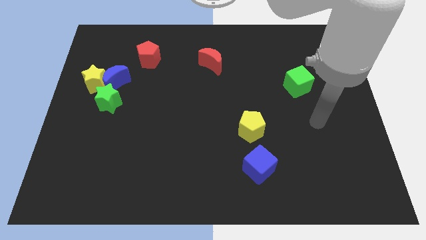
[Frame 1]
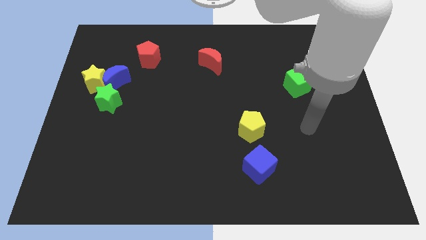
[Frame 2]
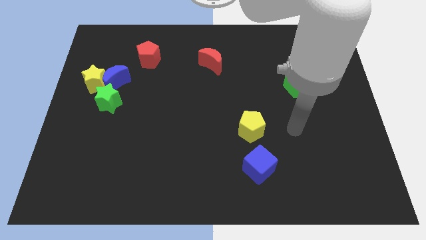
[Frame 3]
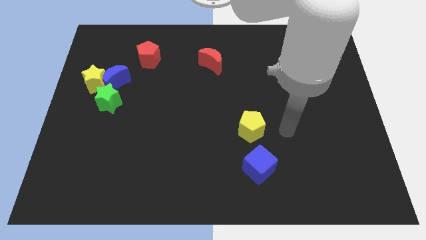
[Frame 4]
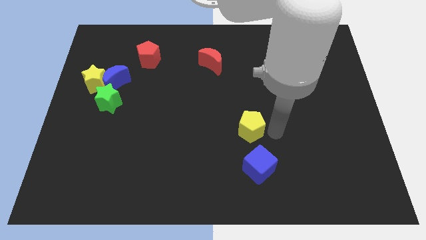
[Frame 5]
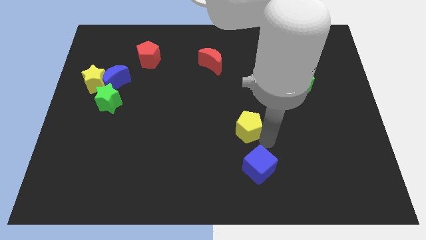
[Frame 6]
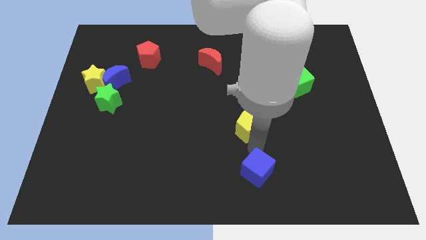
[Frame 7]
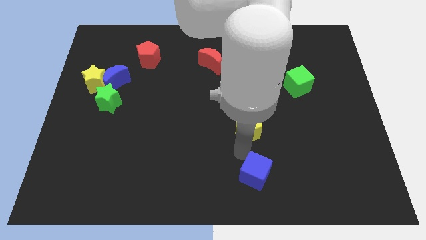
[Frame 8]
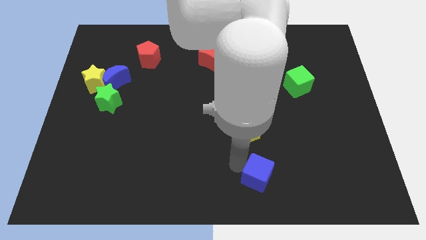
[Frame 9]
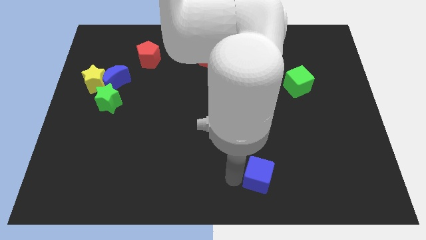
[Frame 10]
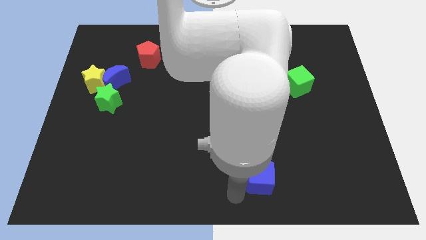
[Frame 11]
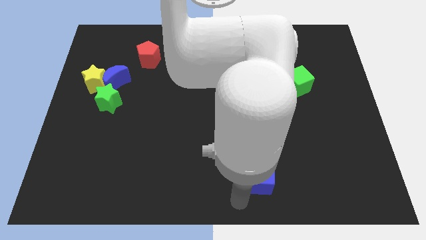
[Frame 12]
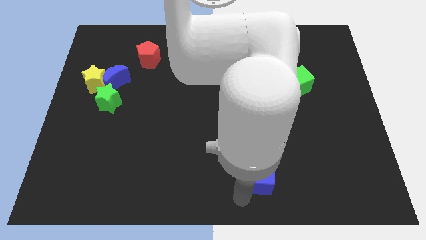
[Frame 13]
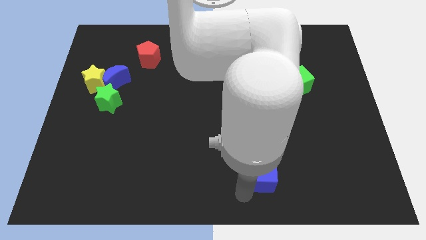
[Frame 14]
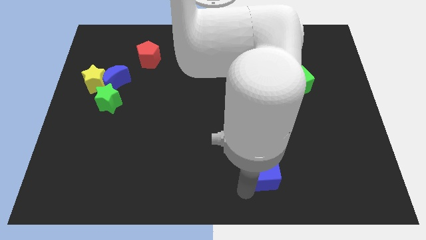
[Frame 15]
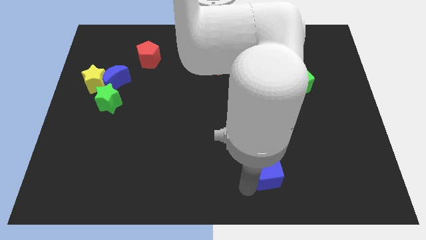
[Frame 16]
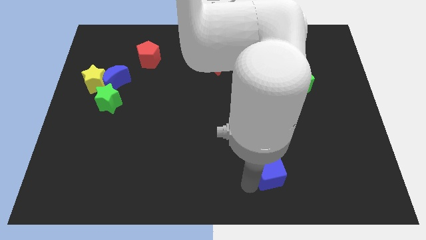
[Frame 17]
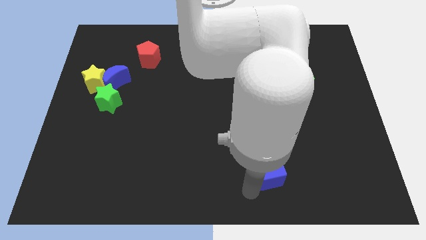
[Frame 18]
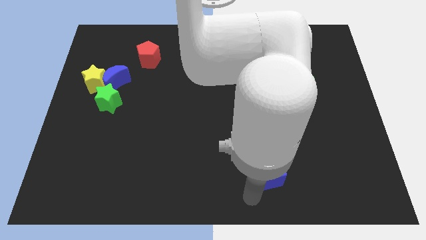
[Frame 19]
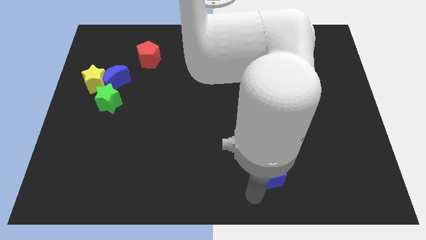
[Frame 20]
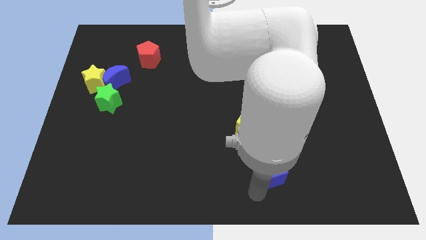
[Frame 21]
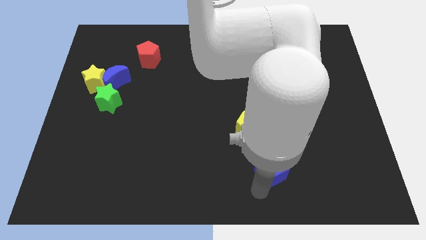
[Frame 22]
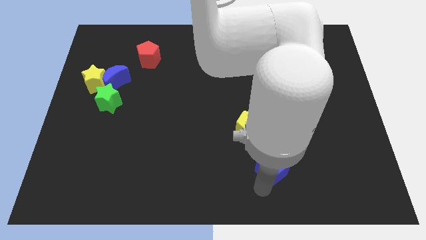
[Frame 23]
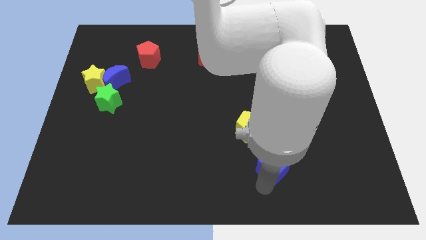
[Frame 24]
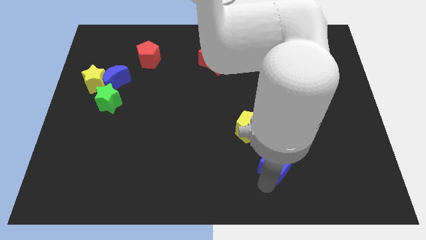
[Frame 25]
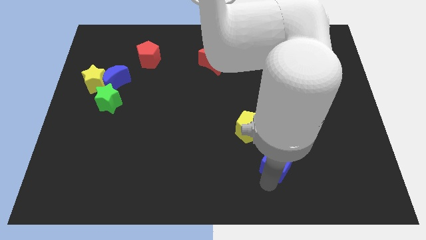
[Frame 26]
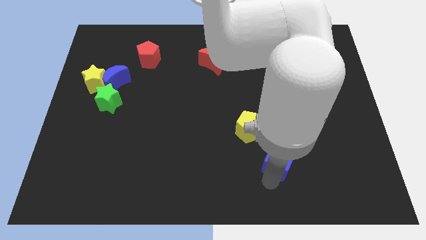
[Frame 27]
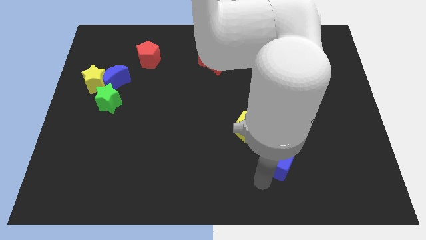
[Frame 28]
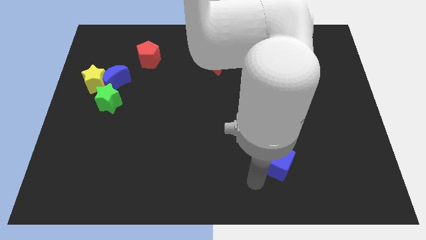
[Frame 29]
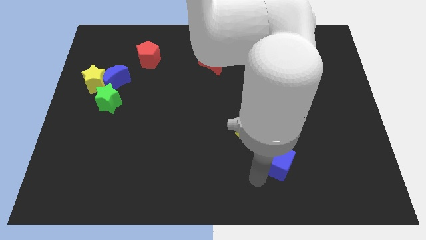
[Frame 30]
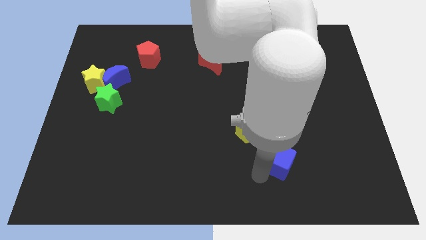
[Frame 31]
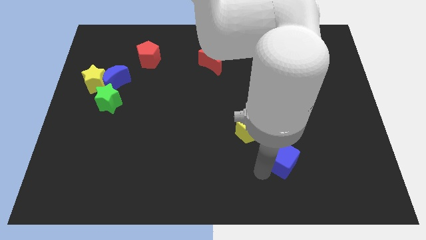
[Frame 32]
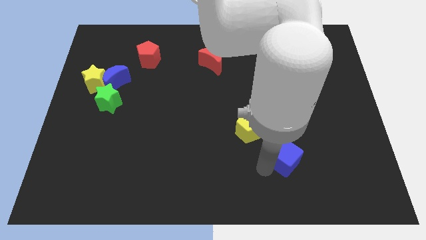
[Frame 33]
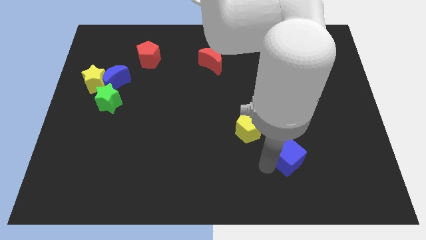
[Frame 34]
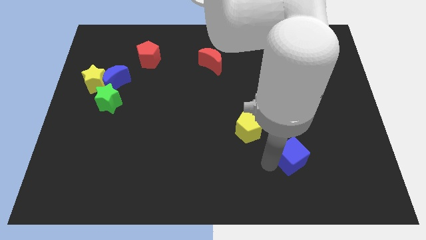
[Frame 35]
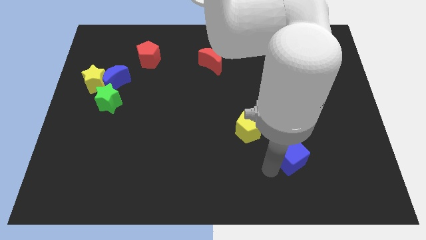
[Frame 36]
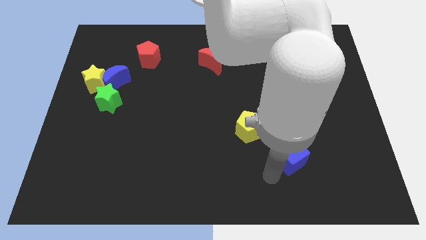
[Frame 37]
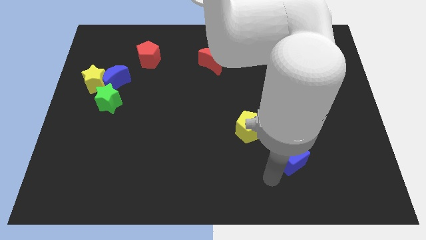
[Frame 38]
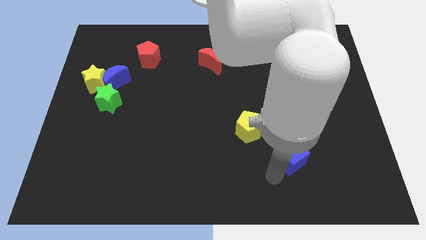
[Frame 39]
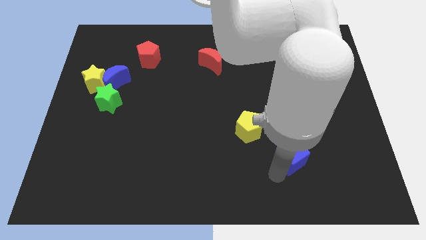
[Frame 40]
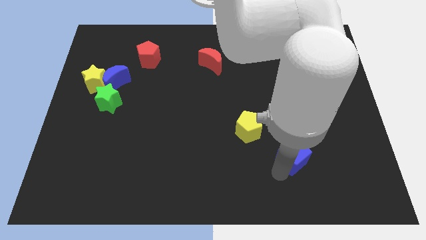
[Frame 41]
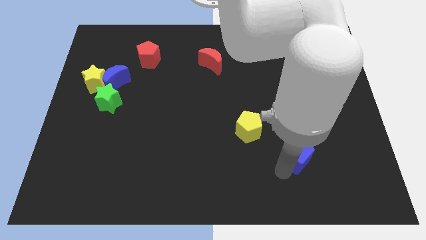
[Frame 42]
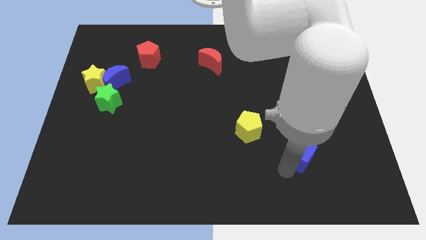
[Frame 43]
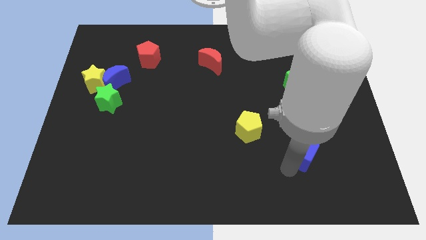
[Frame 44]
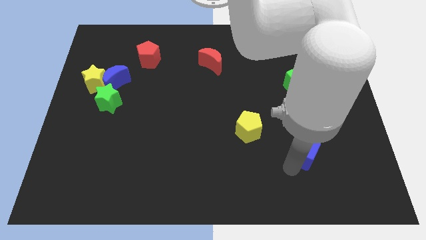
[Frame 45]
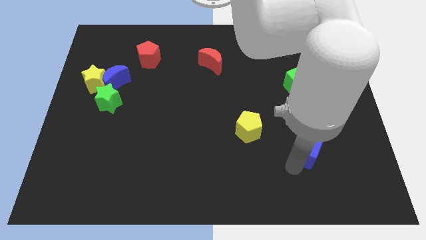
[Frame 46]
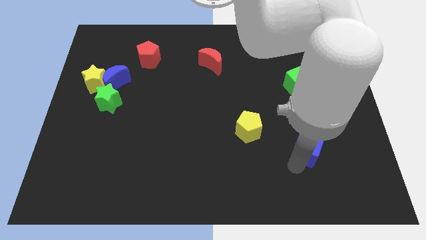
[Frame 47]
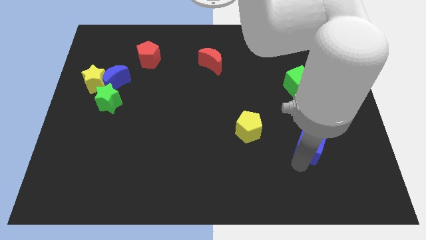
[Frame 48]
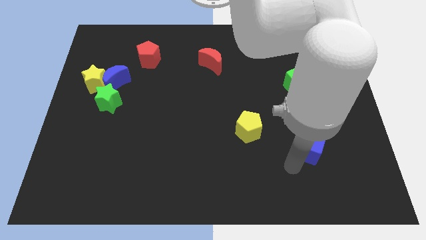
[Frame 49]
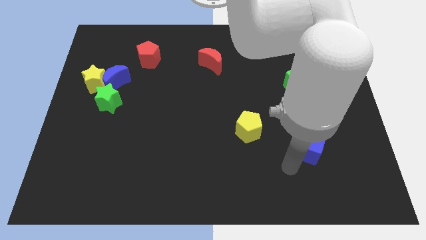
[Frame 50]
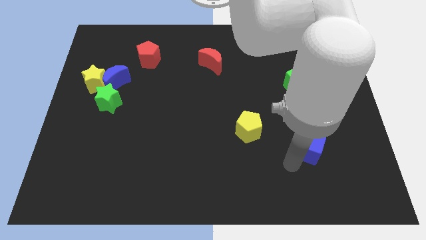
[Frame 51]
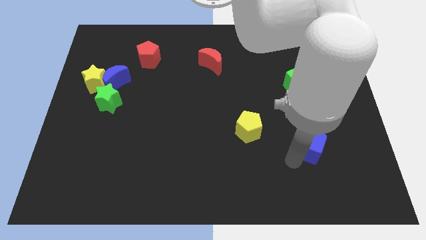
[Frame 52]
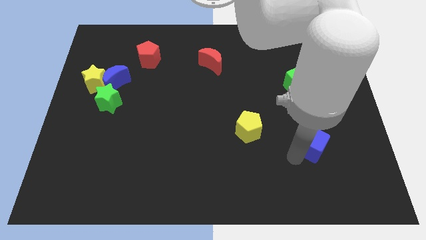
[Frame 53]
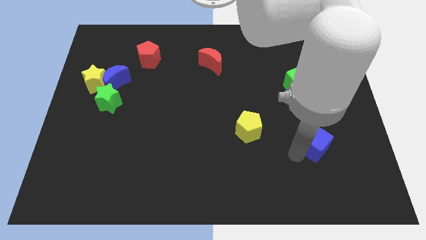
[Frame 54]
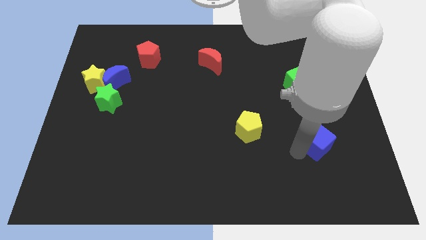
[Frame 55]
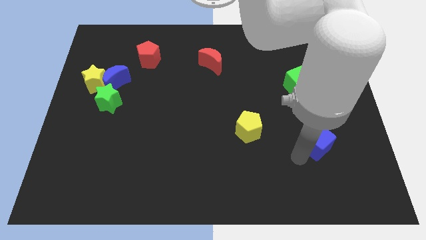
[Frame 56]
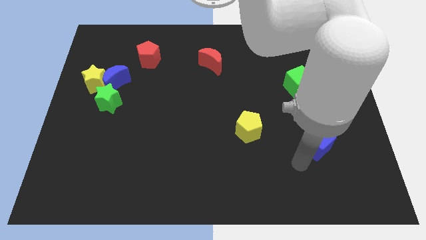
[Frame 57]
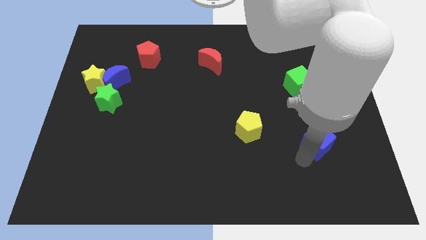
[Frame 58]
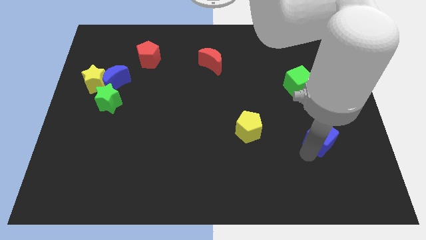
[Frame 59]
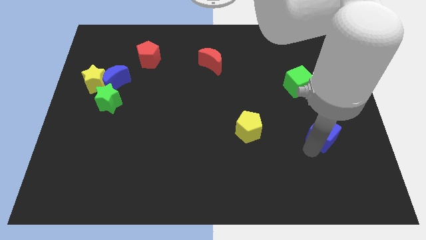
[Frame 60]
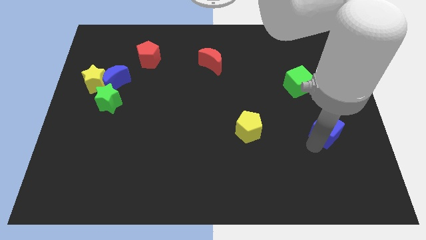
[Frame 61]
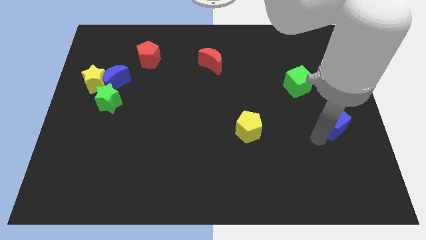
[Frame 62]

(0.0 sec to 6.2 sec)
put the blue cube to the right side of the board

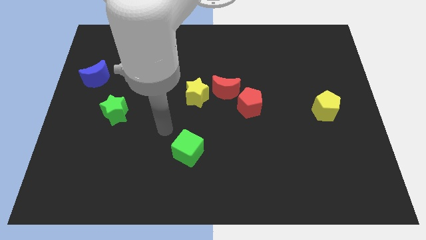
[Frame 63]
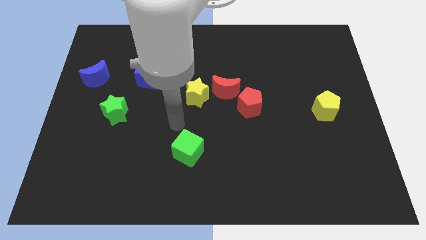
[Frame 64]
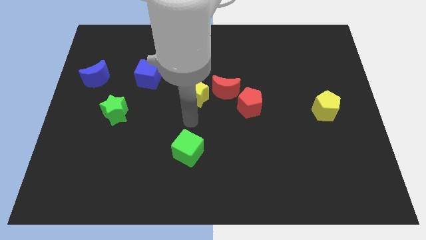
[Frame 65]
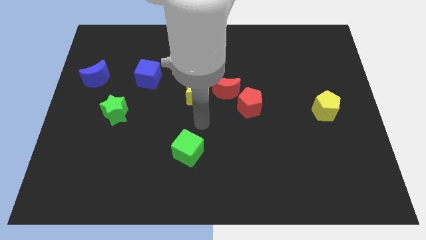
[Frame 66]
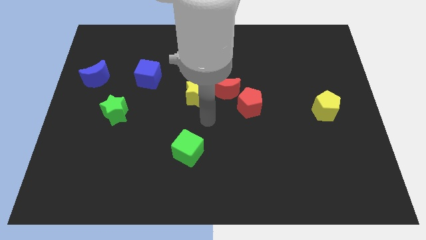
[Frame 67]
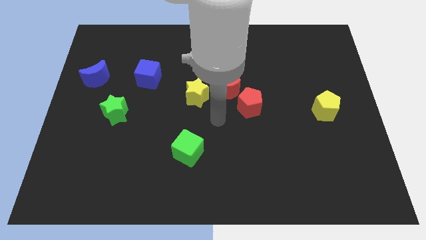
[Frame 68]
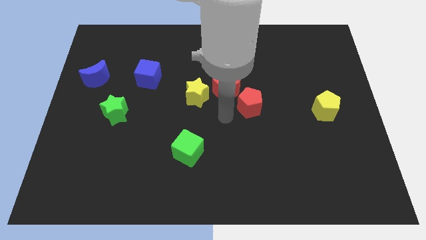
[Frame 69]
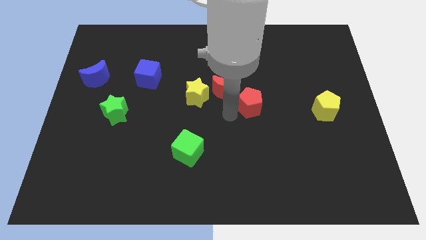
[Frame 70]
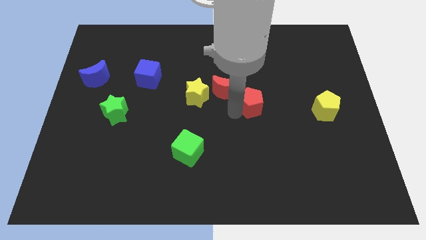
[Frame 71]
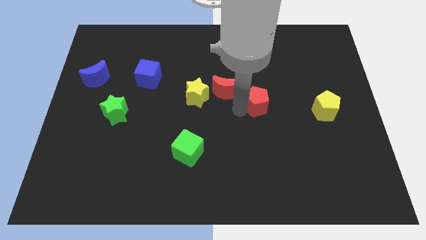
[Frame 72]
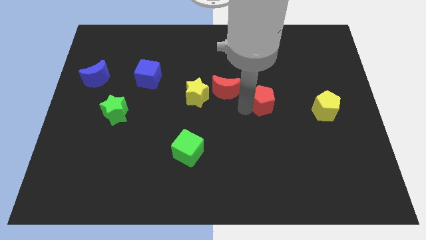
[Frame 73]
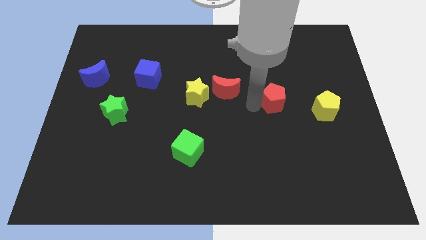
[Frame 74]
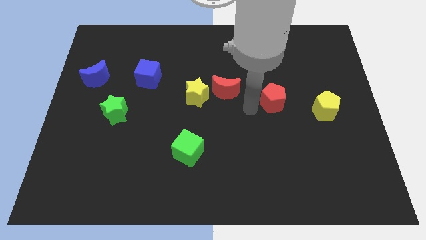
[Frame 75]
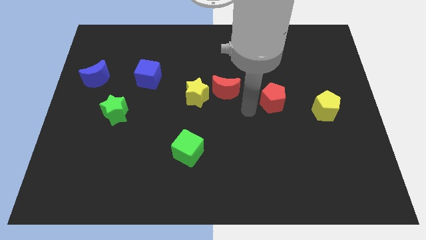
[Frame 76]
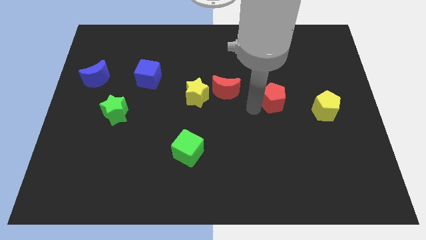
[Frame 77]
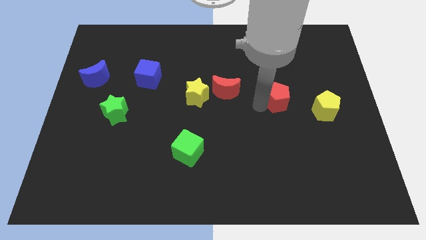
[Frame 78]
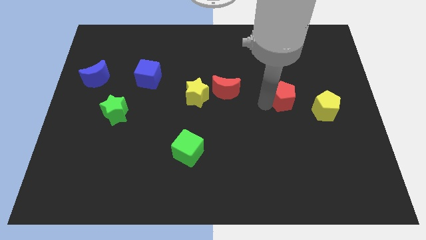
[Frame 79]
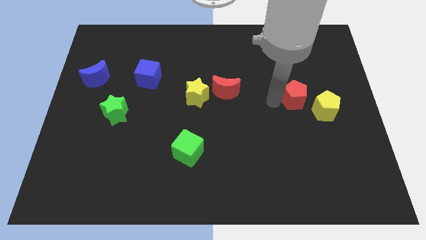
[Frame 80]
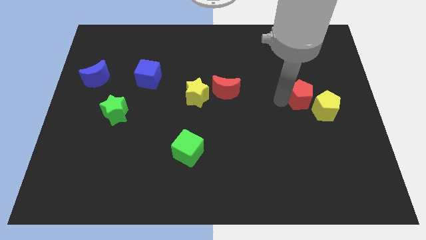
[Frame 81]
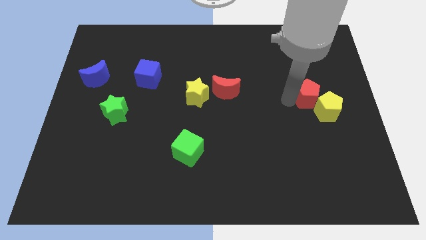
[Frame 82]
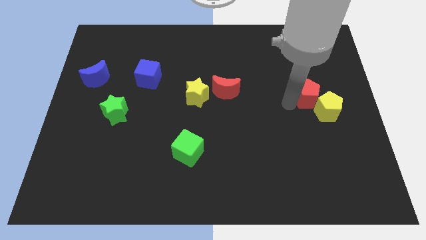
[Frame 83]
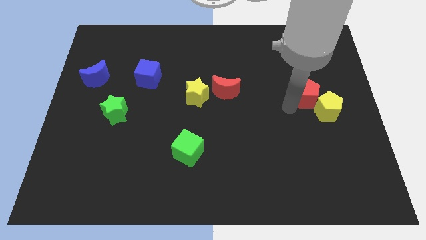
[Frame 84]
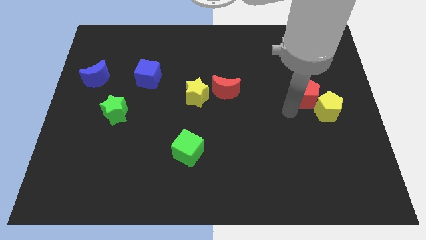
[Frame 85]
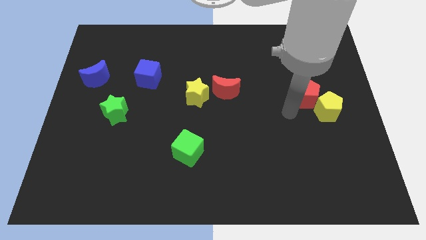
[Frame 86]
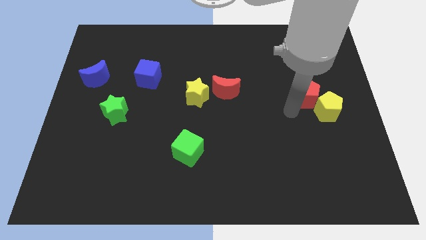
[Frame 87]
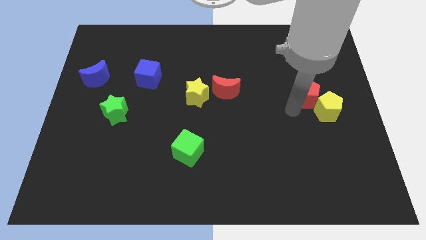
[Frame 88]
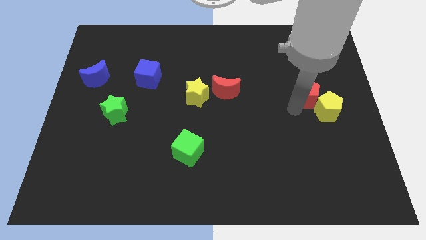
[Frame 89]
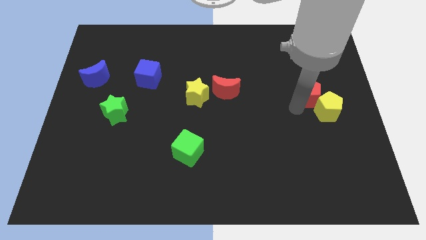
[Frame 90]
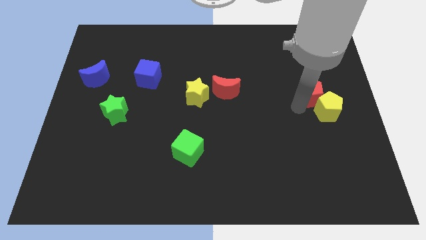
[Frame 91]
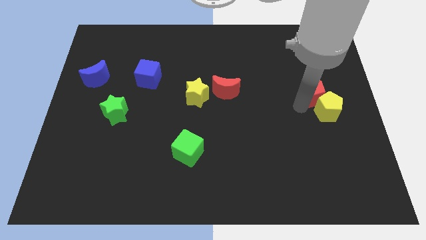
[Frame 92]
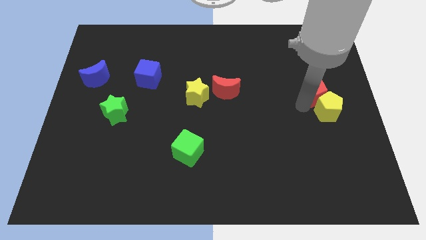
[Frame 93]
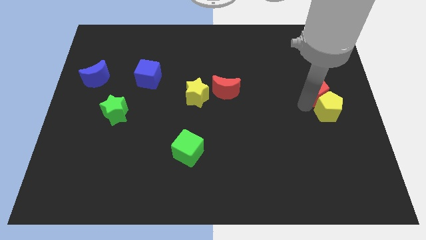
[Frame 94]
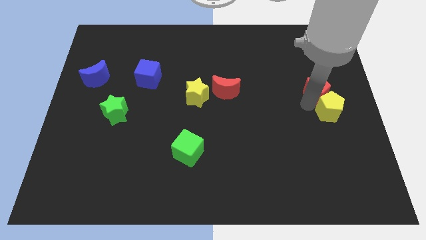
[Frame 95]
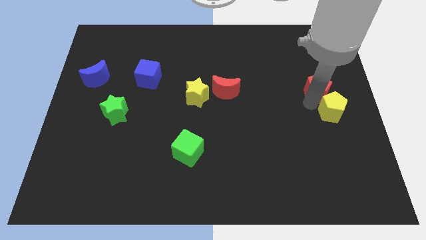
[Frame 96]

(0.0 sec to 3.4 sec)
put the red pentagon to the center right
